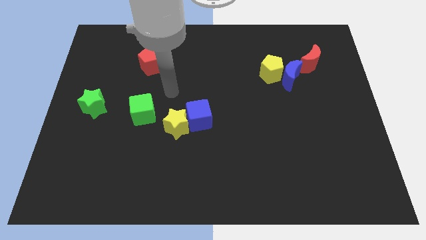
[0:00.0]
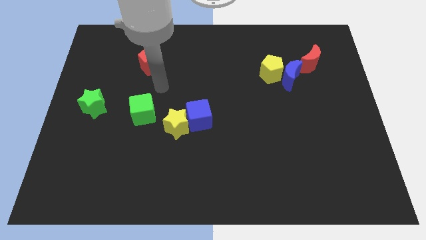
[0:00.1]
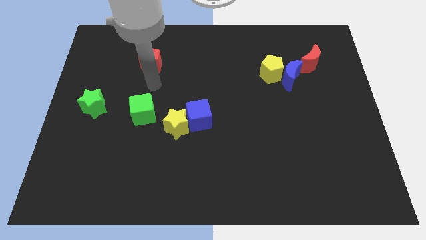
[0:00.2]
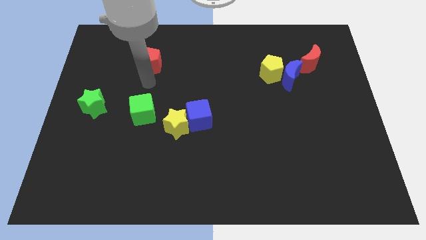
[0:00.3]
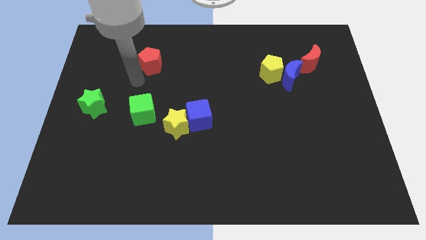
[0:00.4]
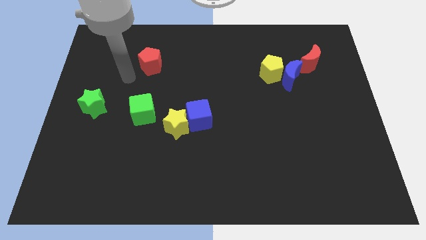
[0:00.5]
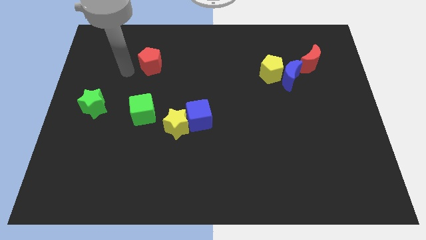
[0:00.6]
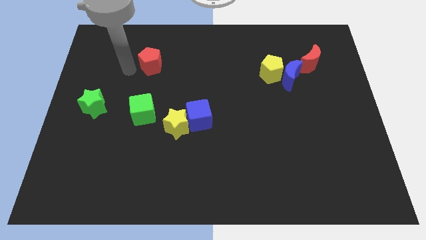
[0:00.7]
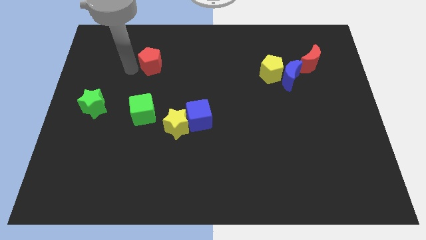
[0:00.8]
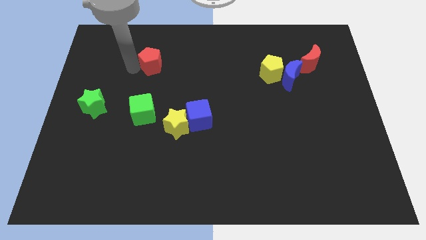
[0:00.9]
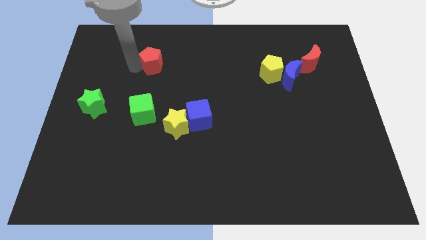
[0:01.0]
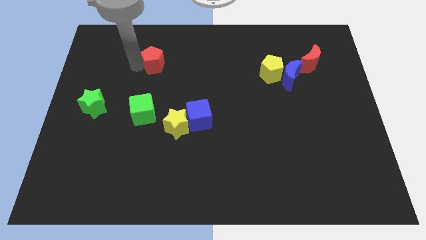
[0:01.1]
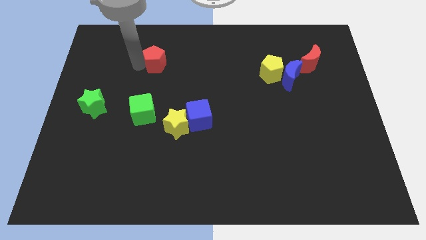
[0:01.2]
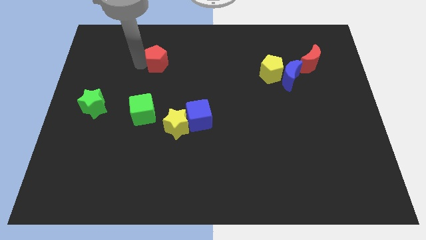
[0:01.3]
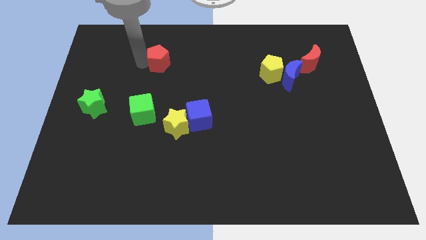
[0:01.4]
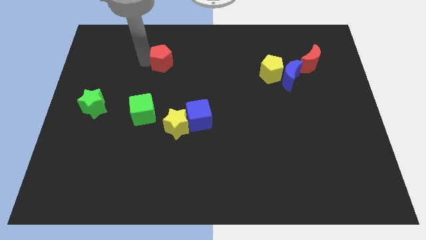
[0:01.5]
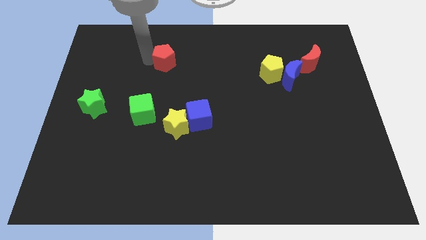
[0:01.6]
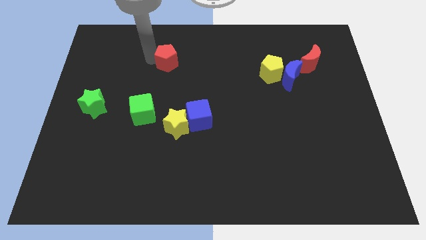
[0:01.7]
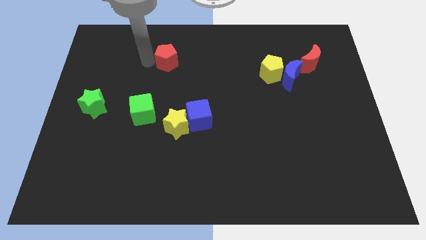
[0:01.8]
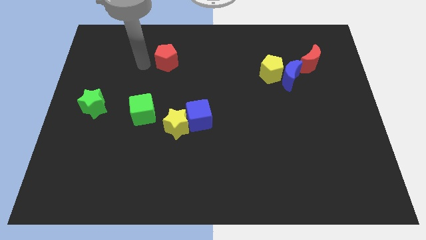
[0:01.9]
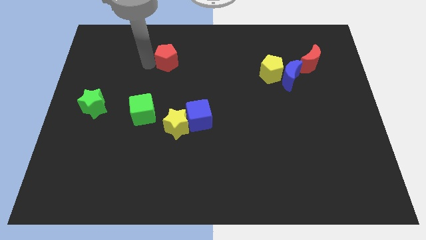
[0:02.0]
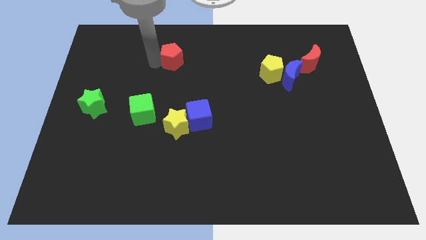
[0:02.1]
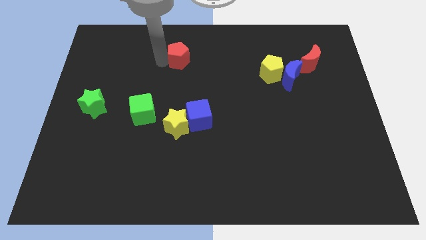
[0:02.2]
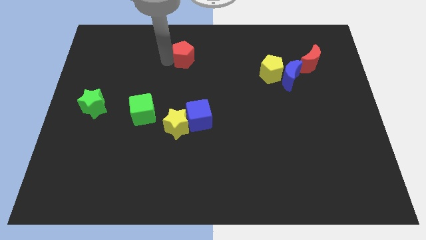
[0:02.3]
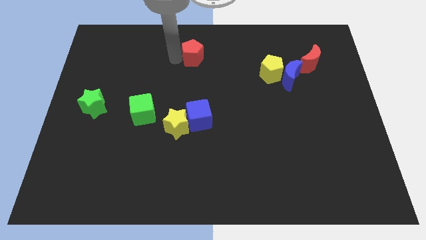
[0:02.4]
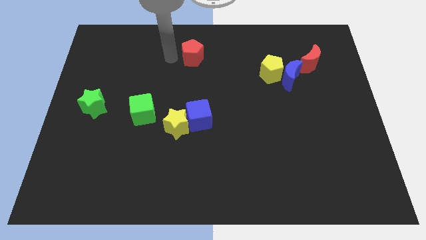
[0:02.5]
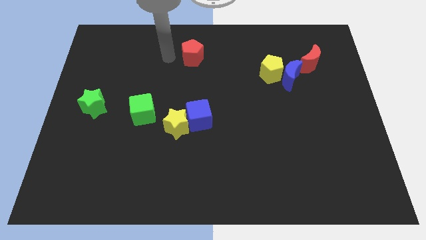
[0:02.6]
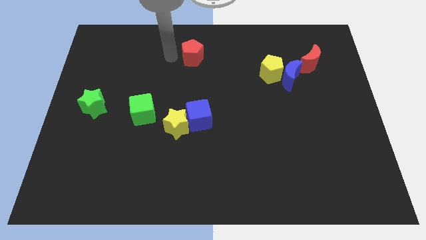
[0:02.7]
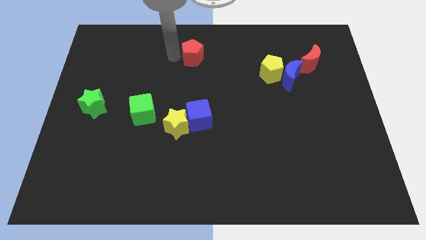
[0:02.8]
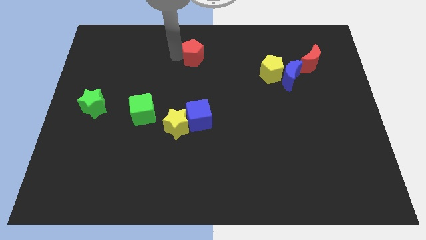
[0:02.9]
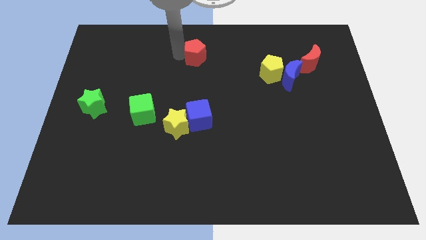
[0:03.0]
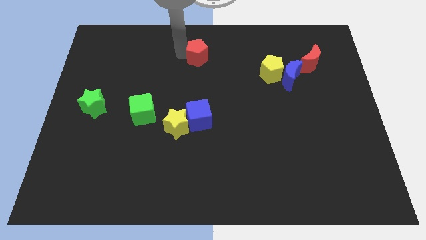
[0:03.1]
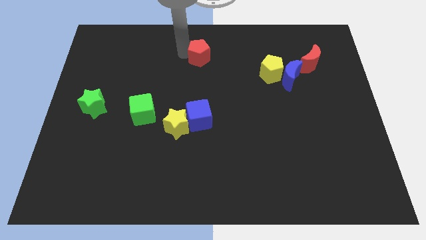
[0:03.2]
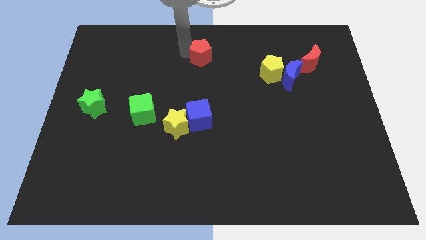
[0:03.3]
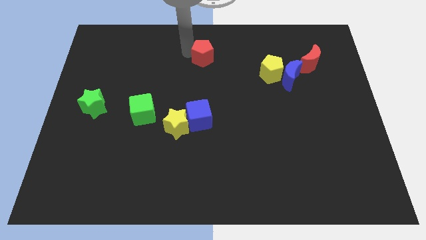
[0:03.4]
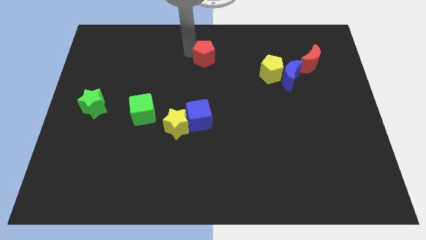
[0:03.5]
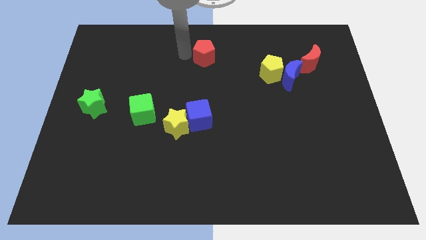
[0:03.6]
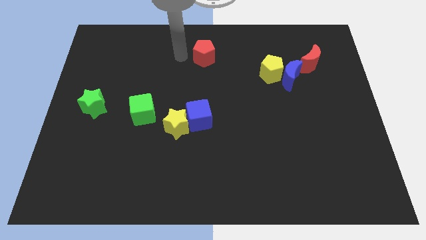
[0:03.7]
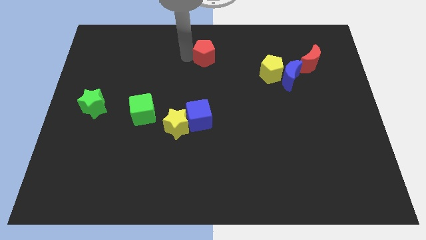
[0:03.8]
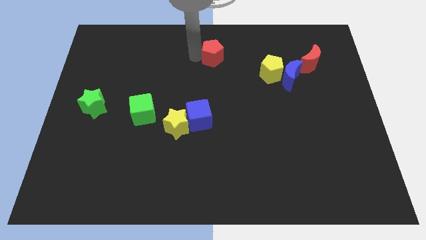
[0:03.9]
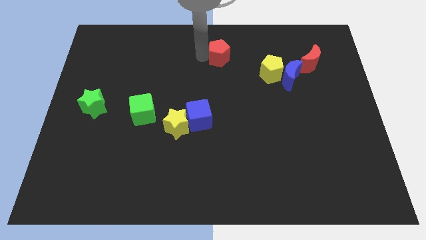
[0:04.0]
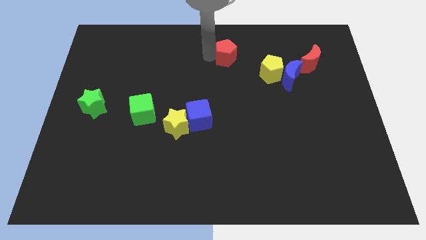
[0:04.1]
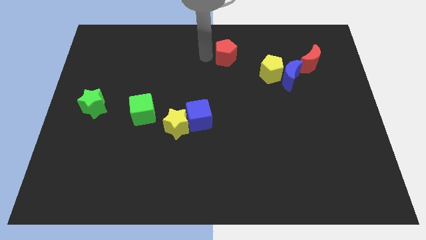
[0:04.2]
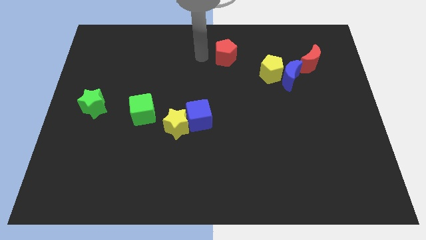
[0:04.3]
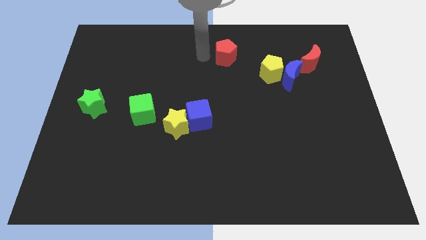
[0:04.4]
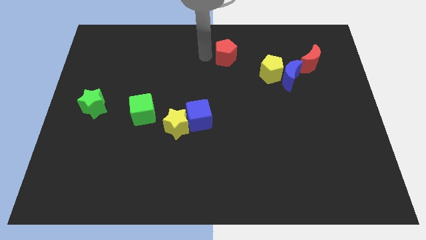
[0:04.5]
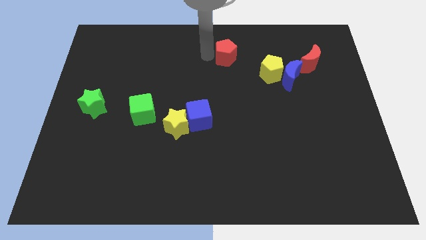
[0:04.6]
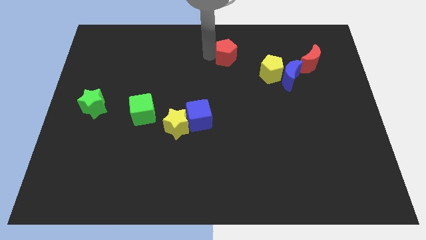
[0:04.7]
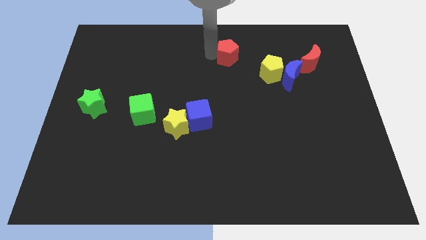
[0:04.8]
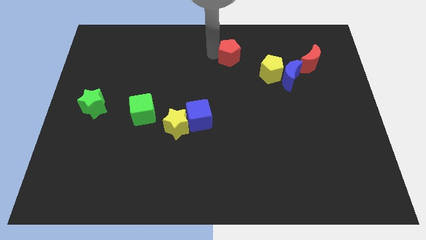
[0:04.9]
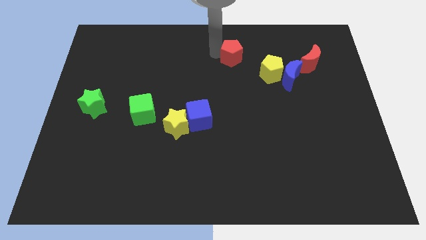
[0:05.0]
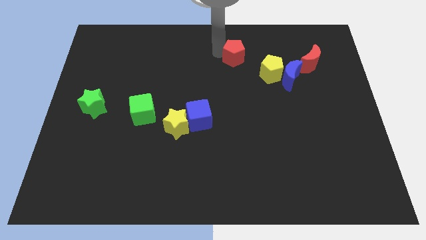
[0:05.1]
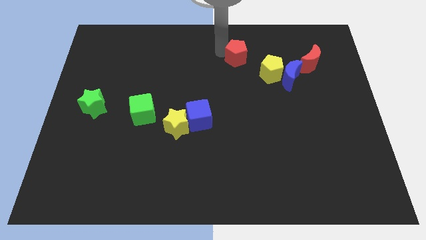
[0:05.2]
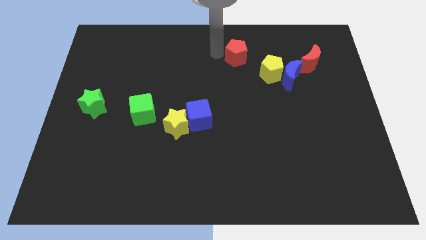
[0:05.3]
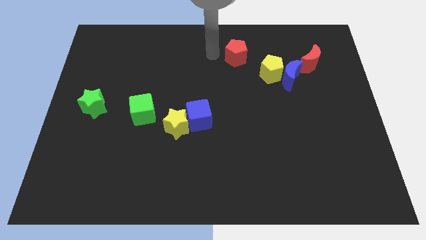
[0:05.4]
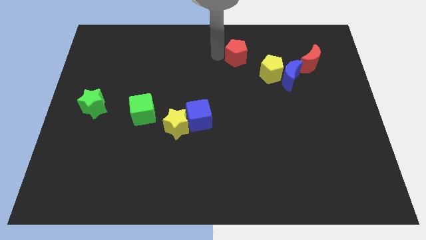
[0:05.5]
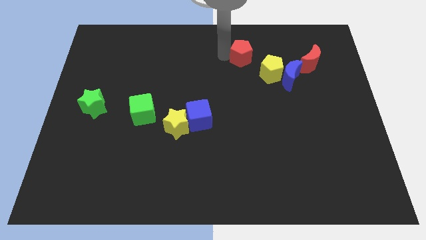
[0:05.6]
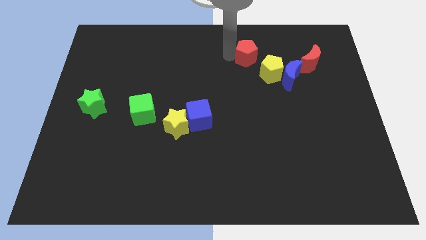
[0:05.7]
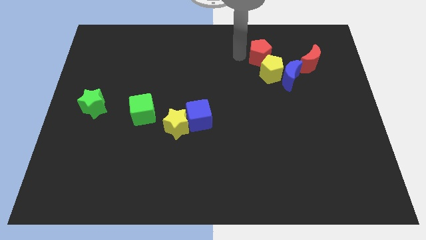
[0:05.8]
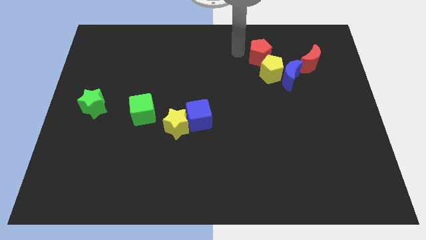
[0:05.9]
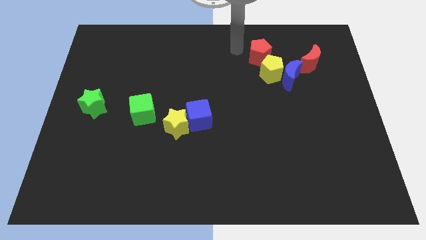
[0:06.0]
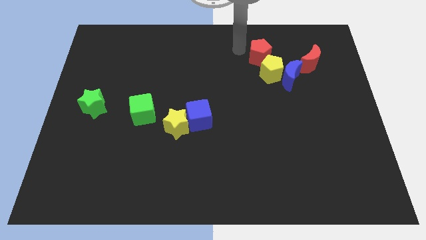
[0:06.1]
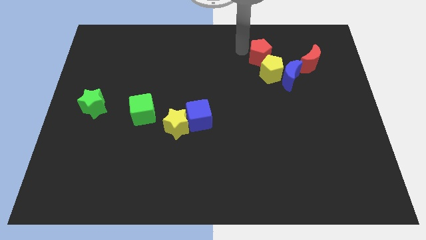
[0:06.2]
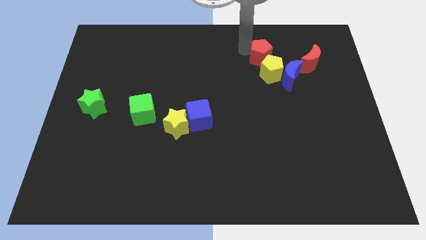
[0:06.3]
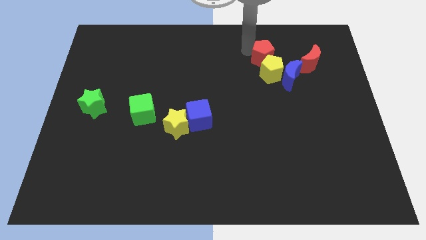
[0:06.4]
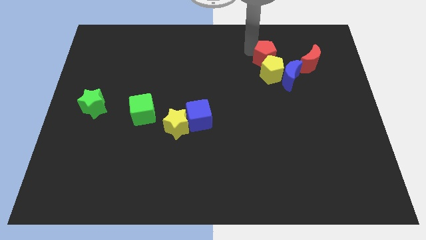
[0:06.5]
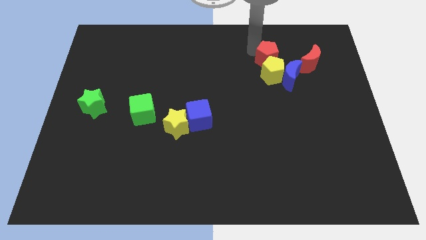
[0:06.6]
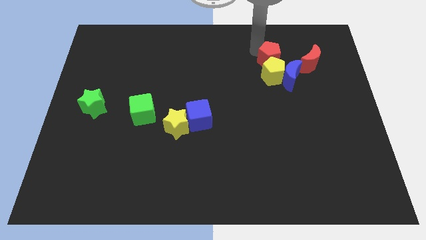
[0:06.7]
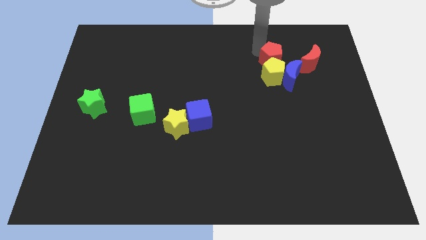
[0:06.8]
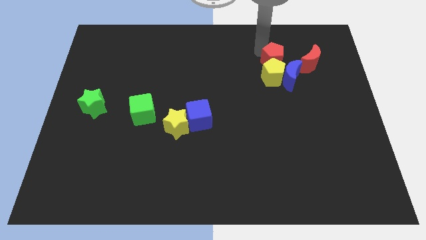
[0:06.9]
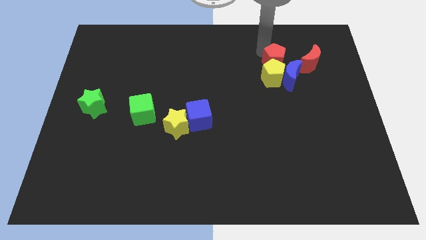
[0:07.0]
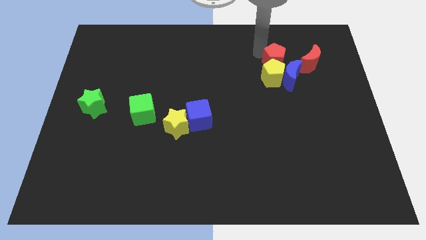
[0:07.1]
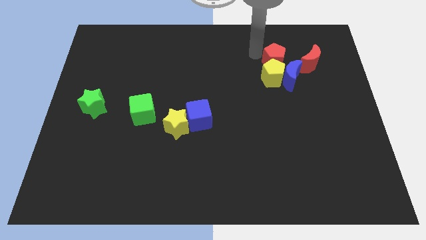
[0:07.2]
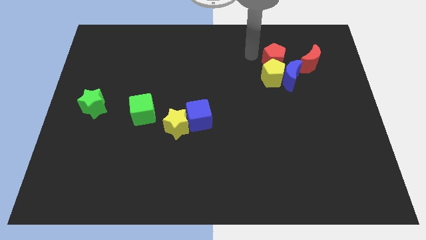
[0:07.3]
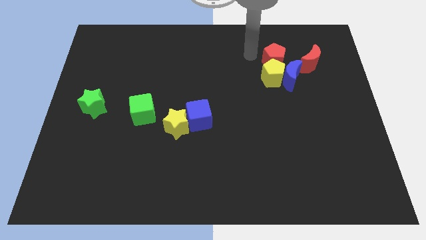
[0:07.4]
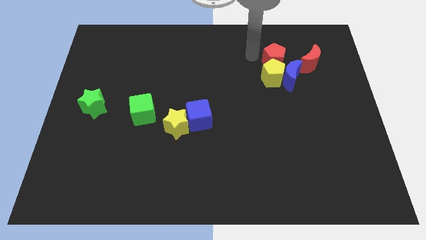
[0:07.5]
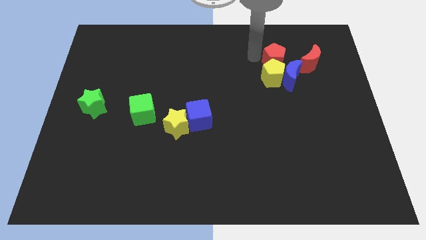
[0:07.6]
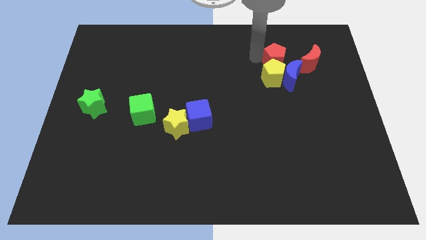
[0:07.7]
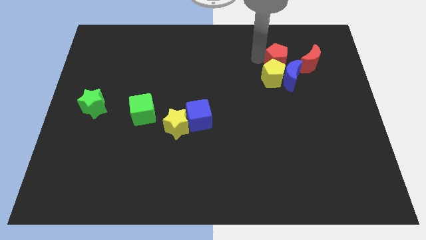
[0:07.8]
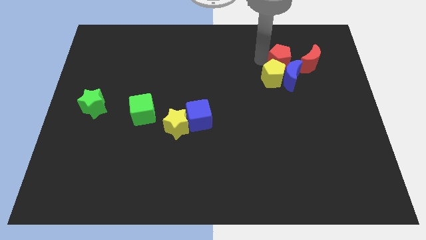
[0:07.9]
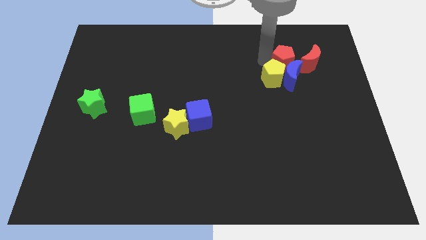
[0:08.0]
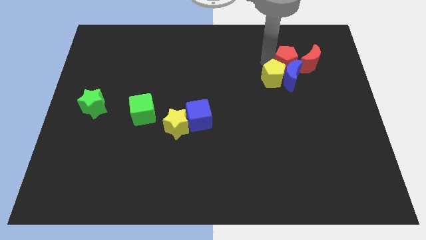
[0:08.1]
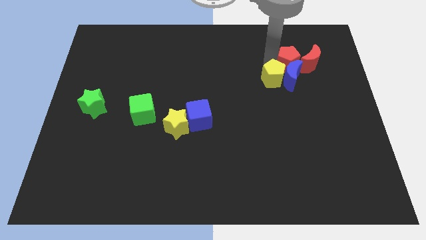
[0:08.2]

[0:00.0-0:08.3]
move the red pentagon to the red moon
